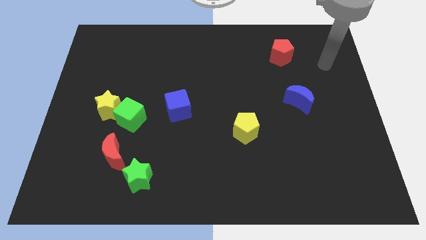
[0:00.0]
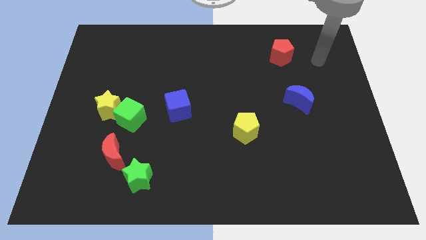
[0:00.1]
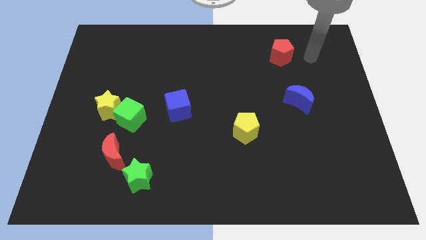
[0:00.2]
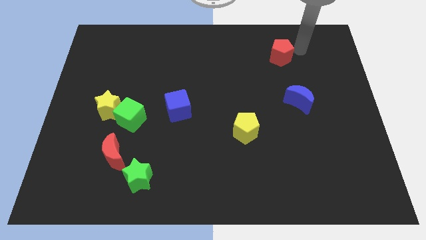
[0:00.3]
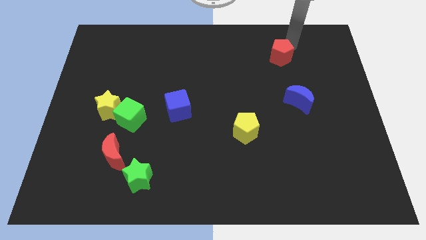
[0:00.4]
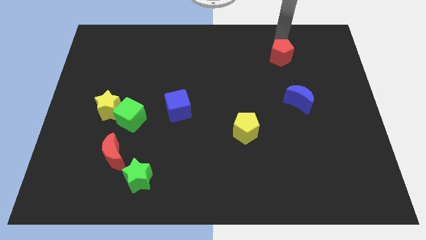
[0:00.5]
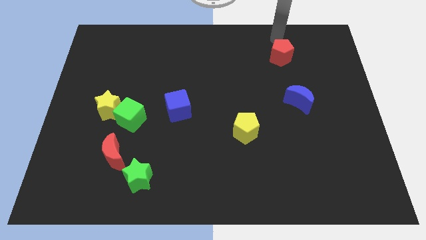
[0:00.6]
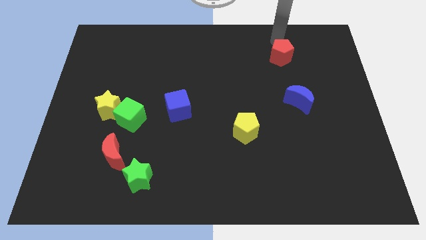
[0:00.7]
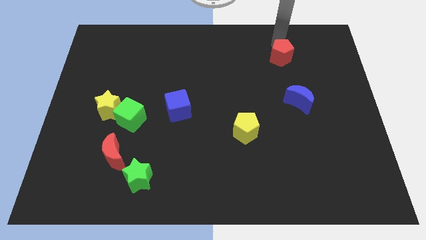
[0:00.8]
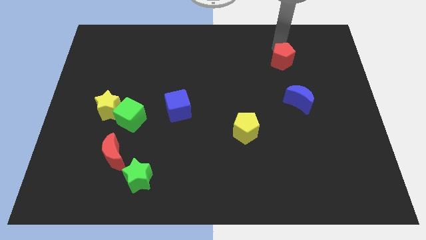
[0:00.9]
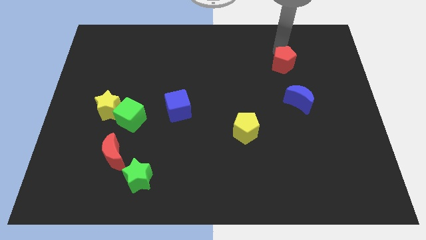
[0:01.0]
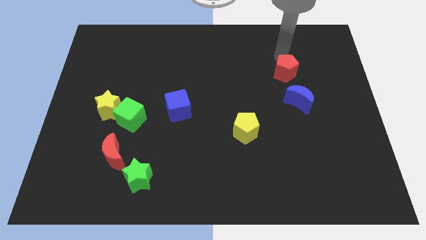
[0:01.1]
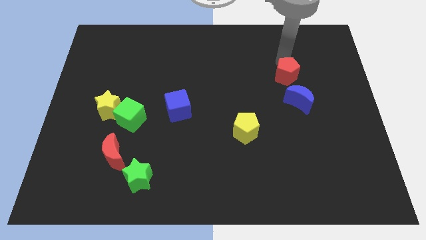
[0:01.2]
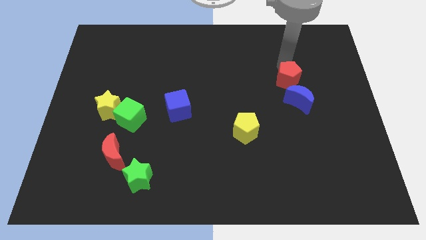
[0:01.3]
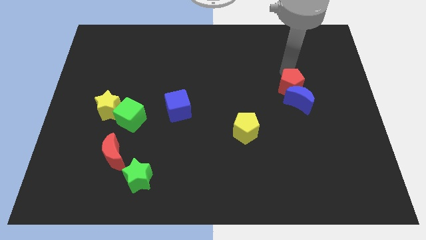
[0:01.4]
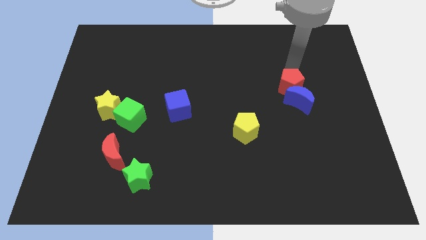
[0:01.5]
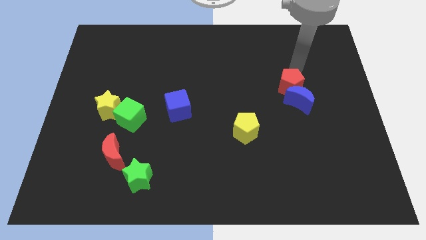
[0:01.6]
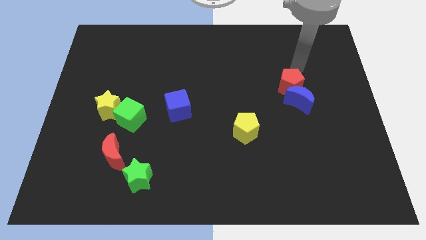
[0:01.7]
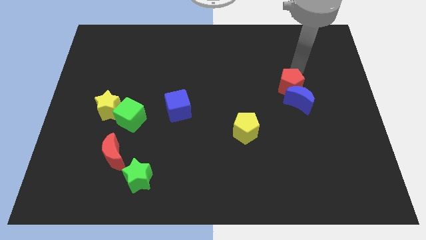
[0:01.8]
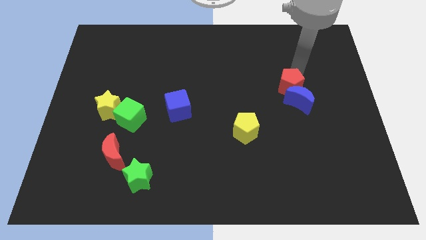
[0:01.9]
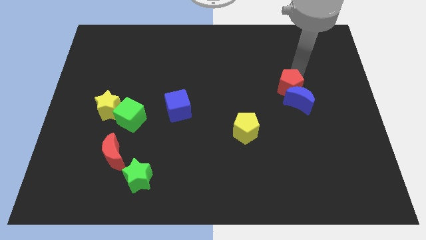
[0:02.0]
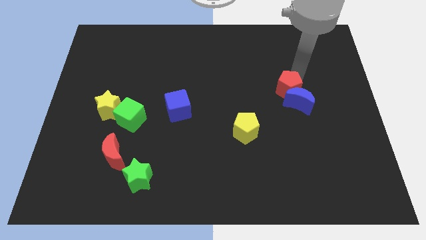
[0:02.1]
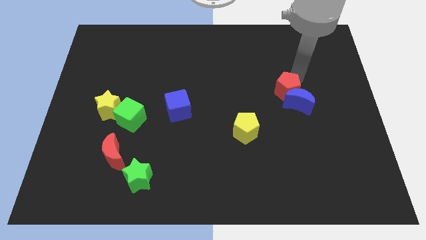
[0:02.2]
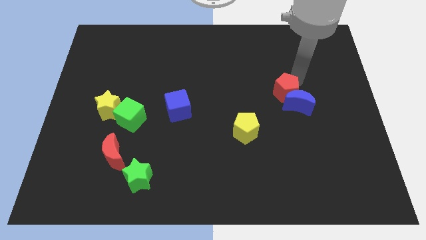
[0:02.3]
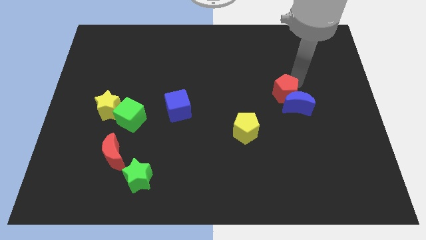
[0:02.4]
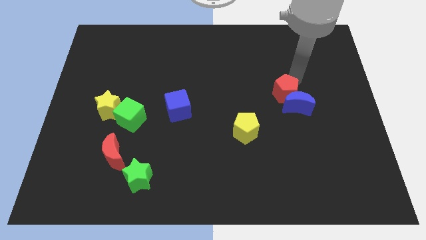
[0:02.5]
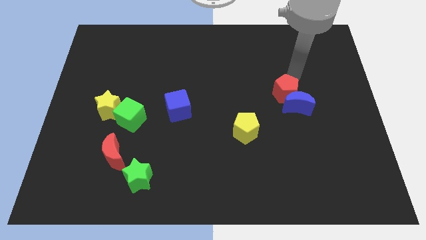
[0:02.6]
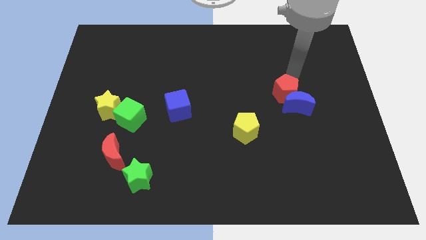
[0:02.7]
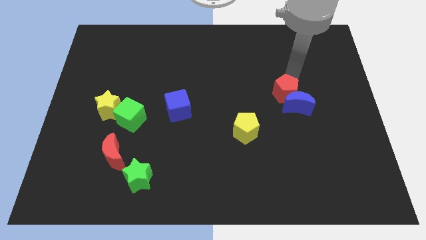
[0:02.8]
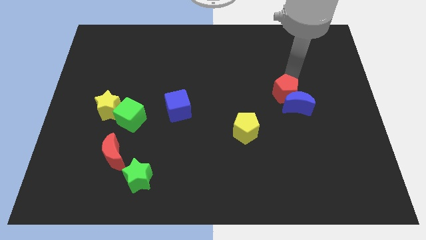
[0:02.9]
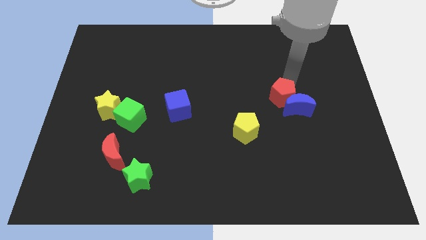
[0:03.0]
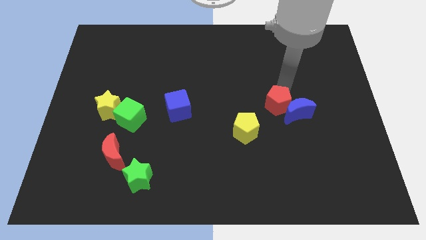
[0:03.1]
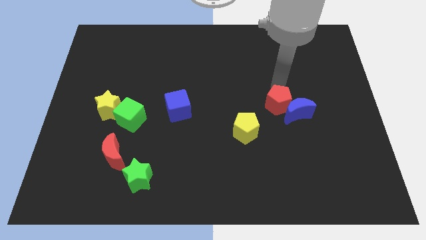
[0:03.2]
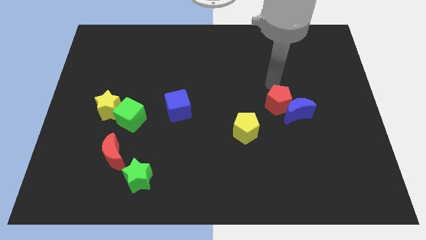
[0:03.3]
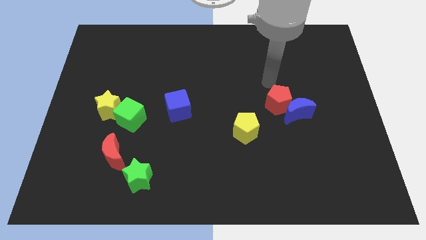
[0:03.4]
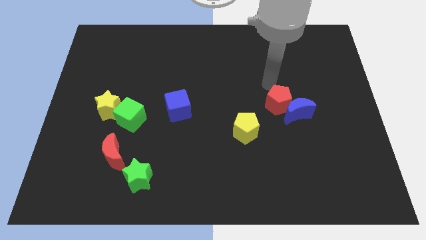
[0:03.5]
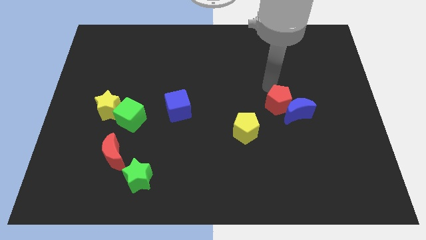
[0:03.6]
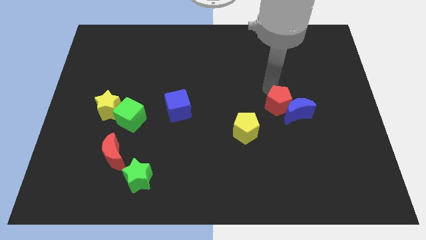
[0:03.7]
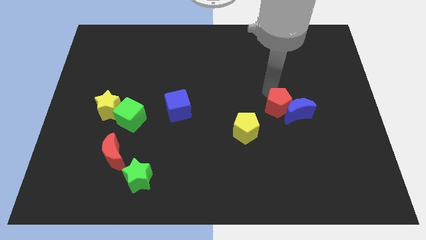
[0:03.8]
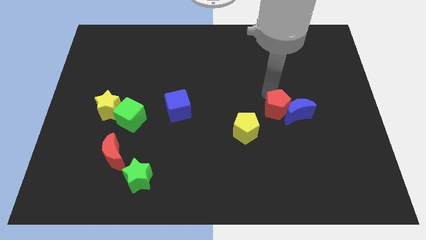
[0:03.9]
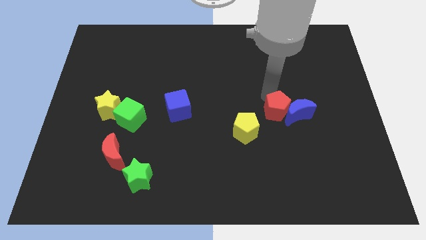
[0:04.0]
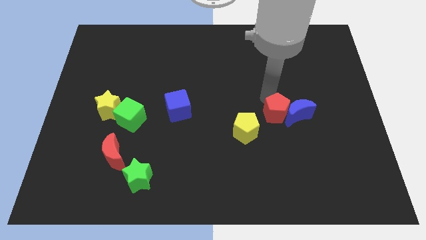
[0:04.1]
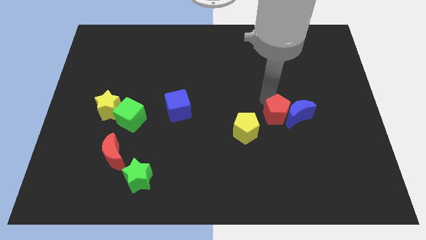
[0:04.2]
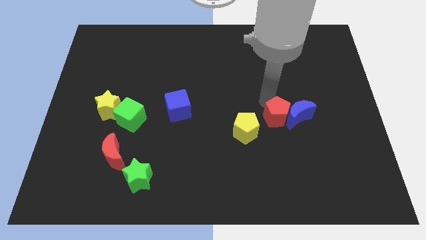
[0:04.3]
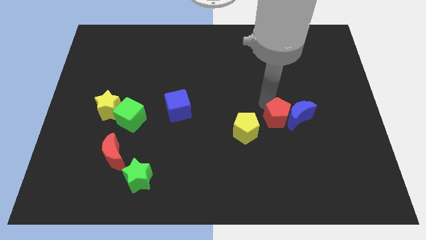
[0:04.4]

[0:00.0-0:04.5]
slide the red pentagon down

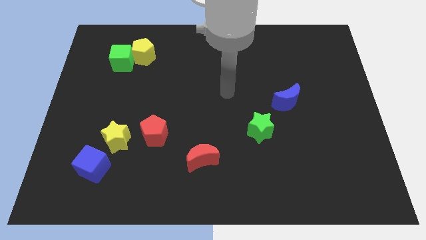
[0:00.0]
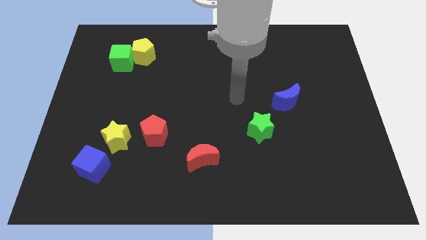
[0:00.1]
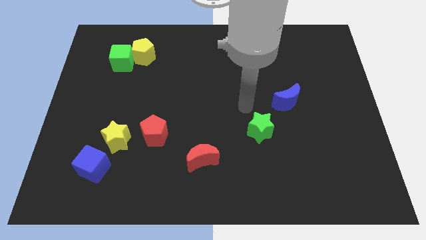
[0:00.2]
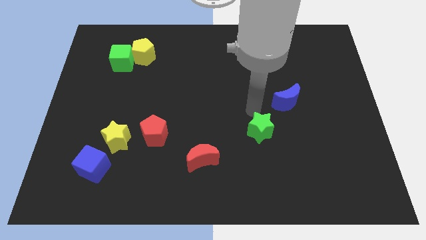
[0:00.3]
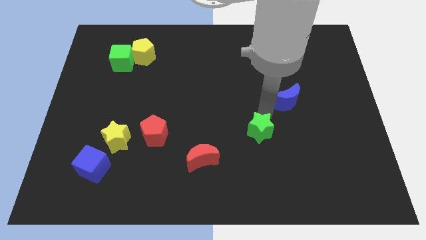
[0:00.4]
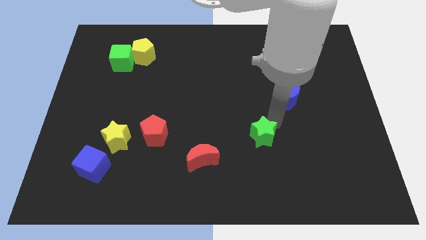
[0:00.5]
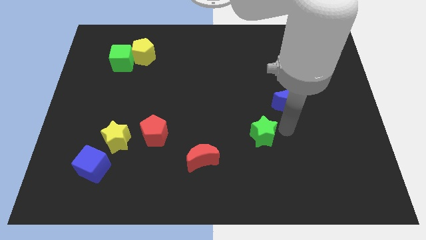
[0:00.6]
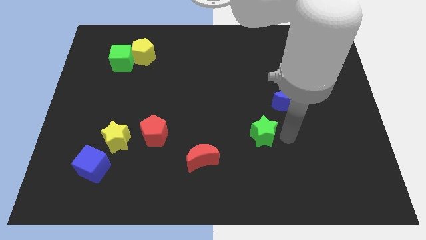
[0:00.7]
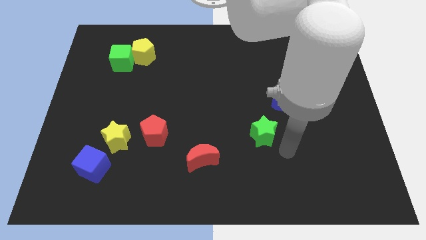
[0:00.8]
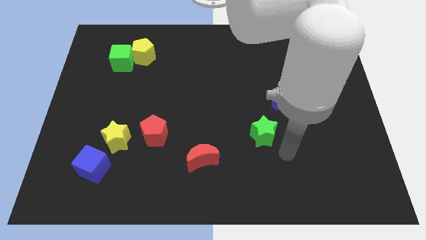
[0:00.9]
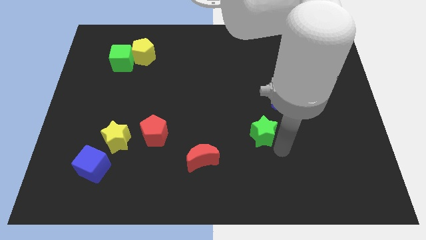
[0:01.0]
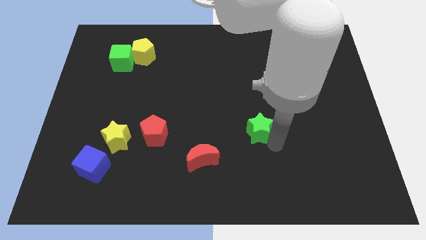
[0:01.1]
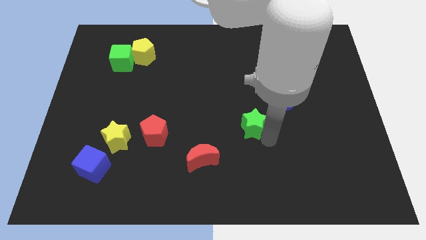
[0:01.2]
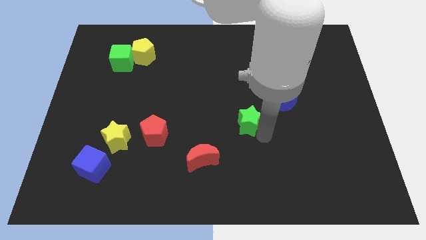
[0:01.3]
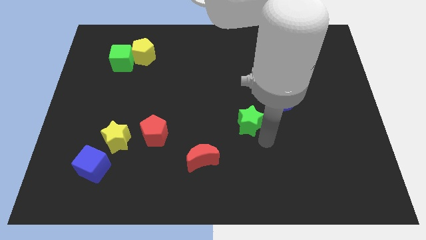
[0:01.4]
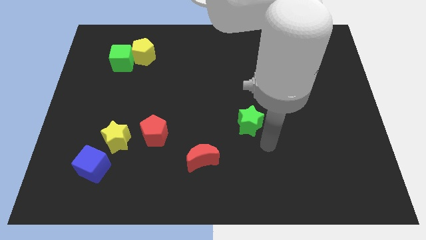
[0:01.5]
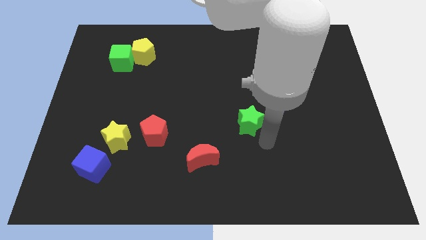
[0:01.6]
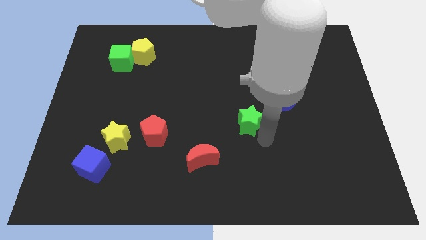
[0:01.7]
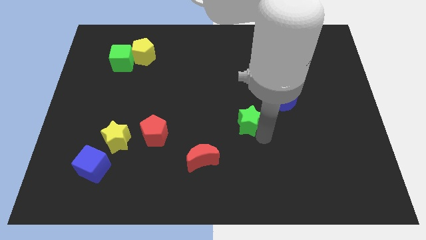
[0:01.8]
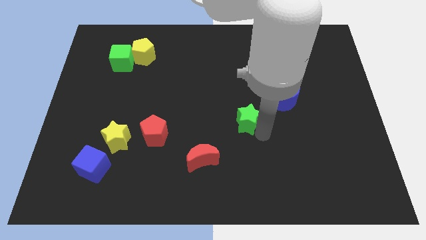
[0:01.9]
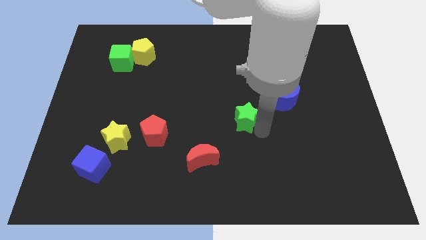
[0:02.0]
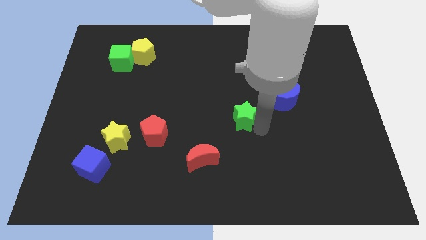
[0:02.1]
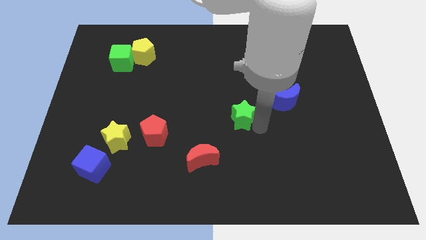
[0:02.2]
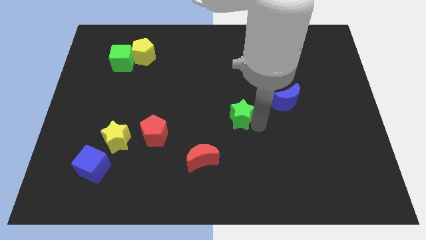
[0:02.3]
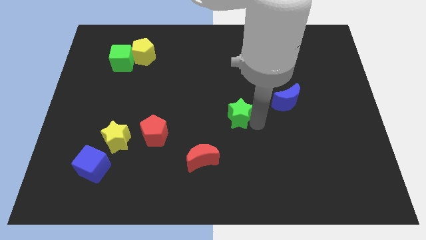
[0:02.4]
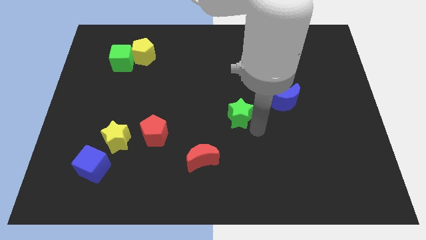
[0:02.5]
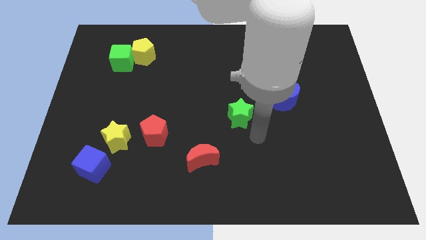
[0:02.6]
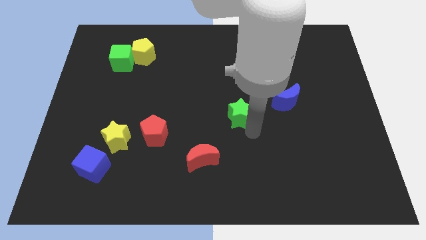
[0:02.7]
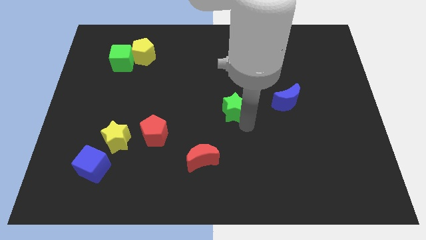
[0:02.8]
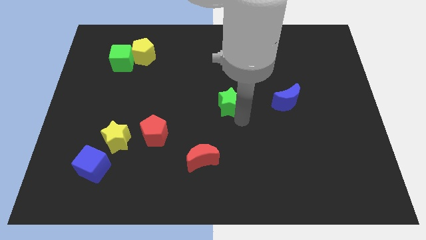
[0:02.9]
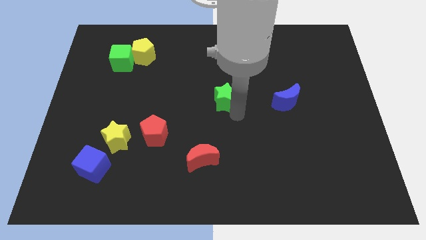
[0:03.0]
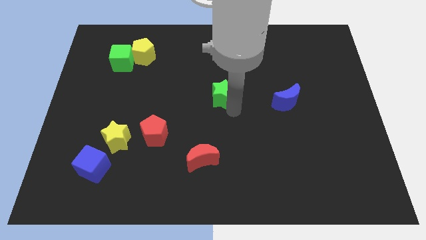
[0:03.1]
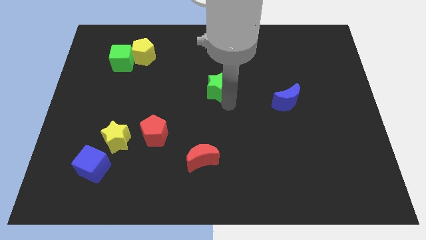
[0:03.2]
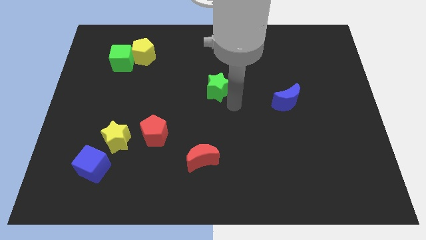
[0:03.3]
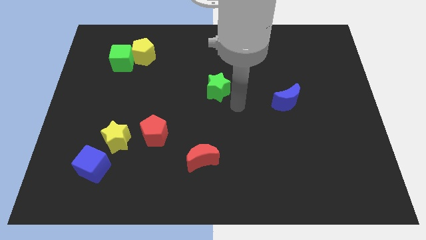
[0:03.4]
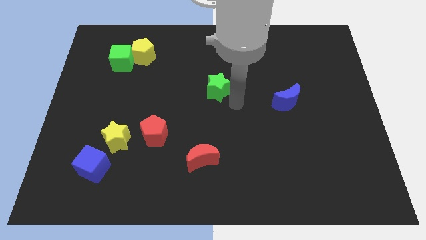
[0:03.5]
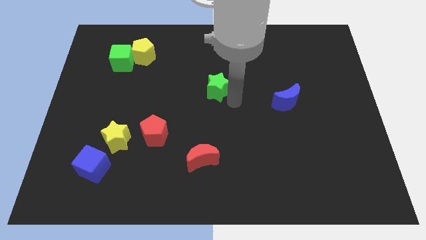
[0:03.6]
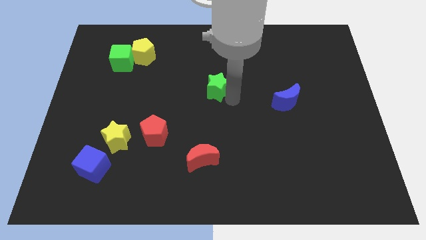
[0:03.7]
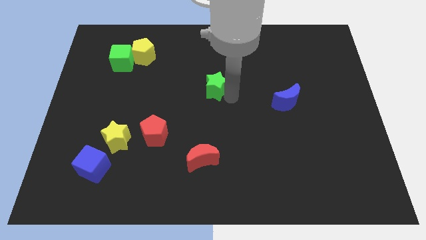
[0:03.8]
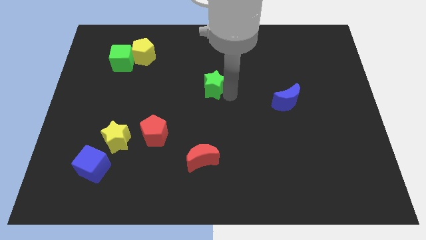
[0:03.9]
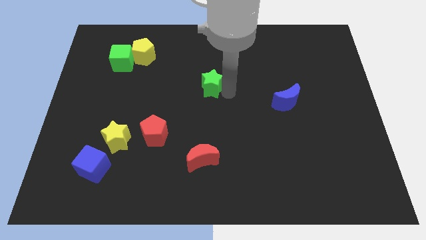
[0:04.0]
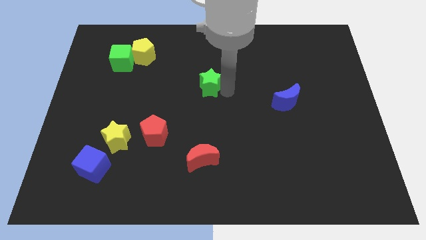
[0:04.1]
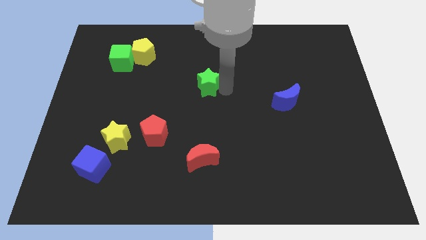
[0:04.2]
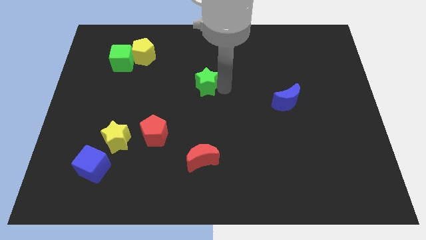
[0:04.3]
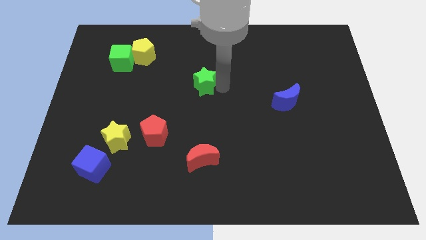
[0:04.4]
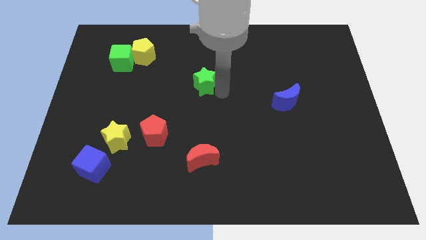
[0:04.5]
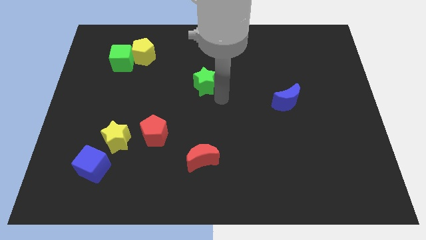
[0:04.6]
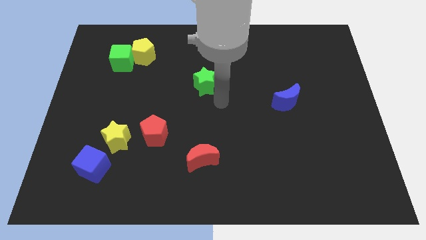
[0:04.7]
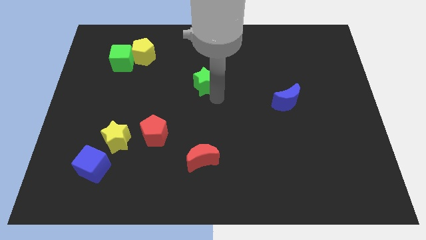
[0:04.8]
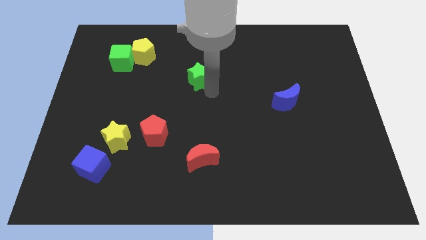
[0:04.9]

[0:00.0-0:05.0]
push the green star up and left diagonally
